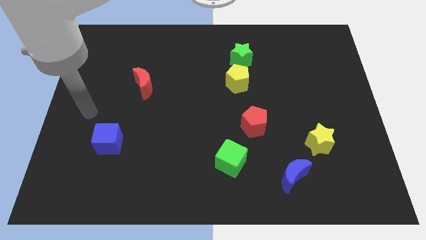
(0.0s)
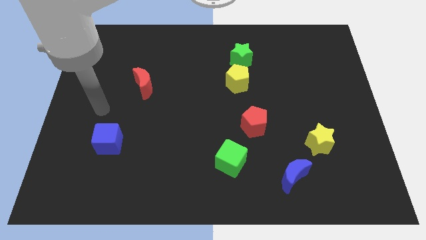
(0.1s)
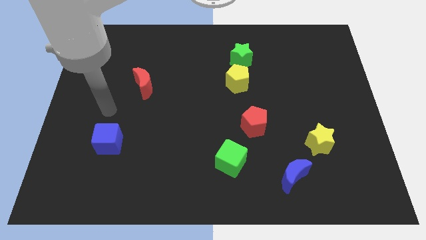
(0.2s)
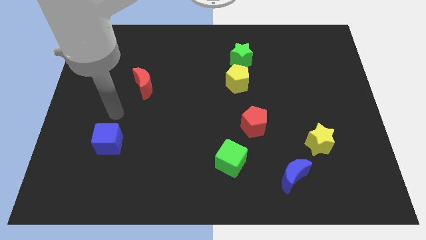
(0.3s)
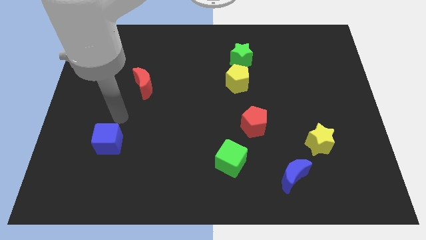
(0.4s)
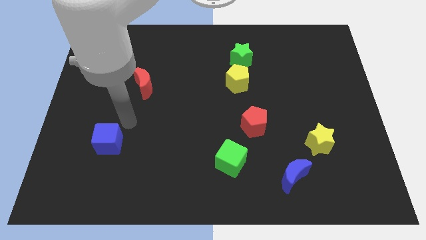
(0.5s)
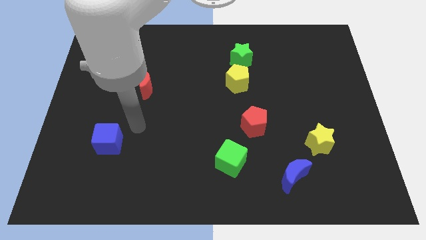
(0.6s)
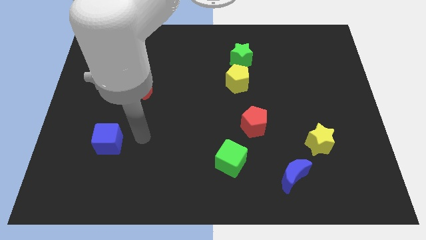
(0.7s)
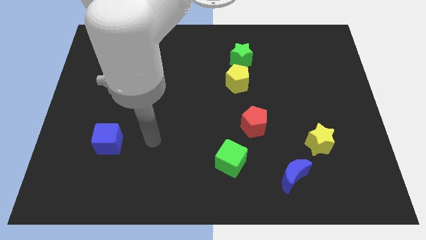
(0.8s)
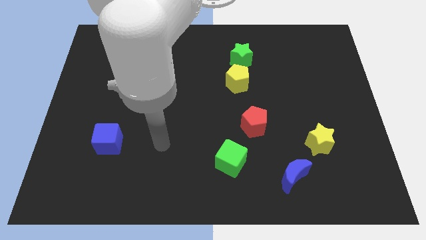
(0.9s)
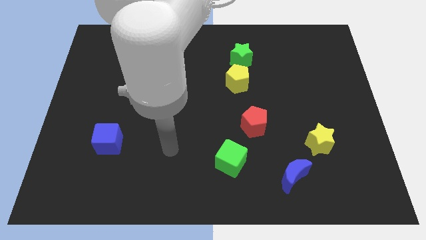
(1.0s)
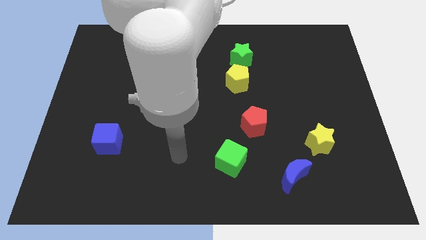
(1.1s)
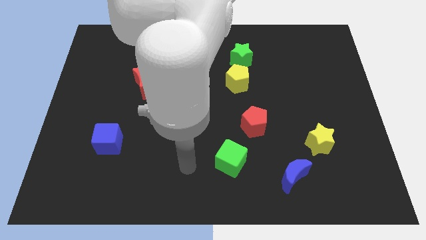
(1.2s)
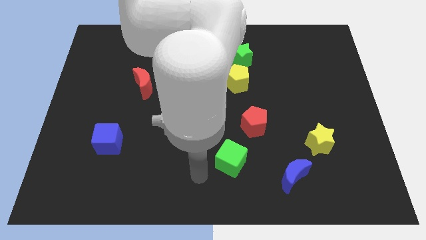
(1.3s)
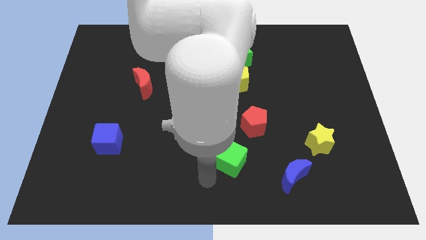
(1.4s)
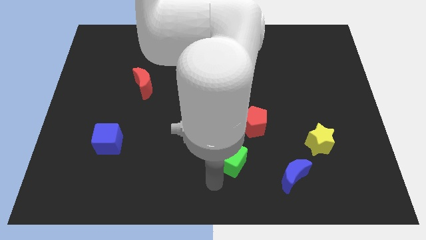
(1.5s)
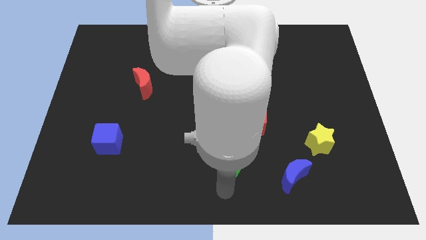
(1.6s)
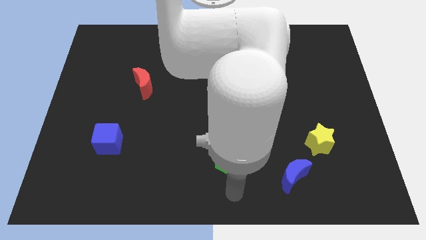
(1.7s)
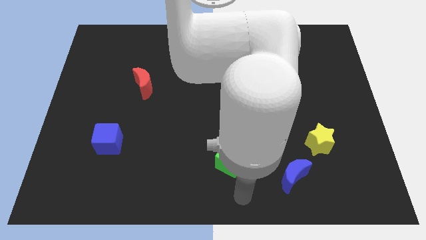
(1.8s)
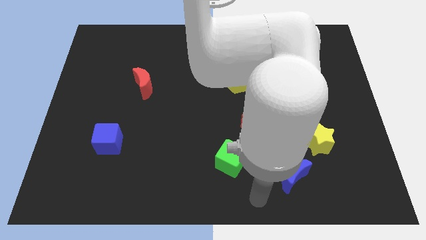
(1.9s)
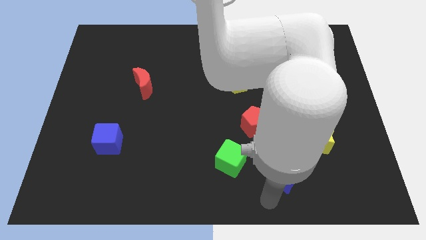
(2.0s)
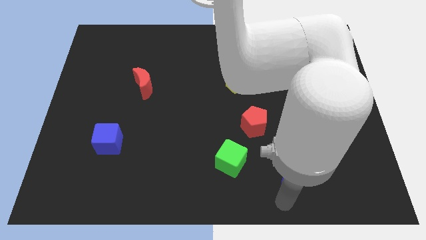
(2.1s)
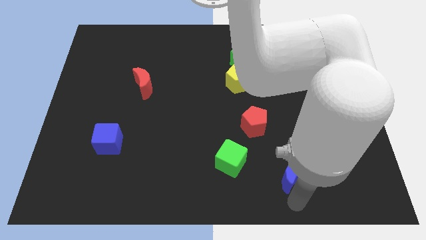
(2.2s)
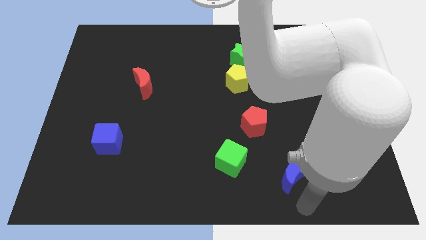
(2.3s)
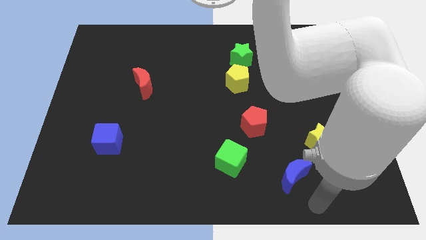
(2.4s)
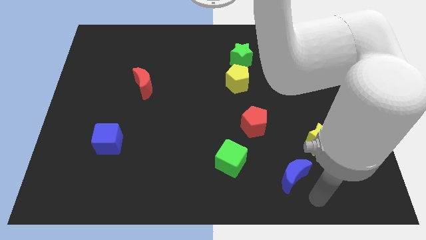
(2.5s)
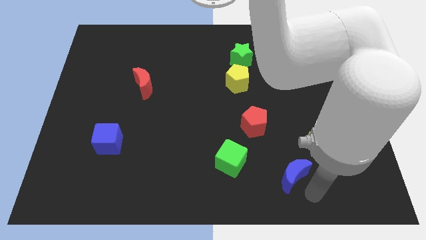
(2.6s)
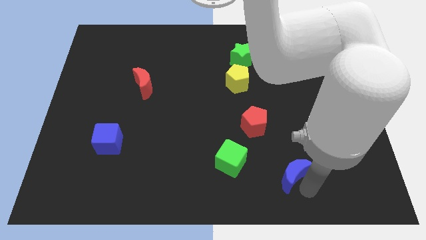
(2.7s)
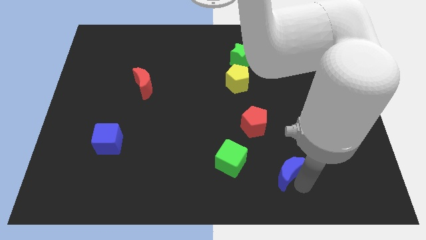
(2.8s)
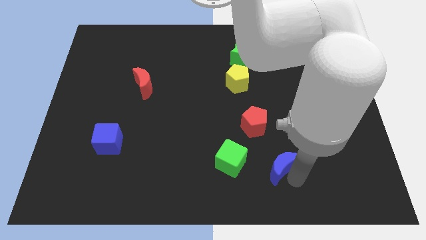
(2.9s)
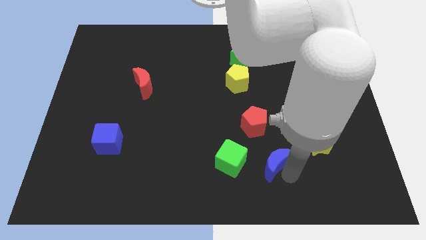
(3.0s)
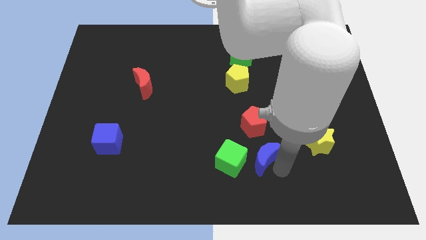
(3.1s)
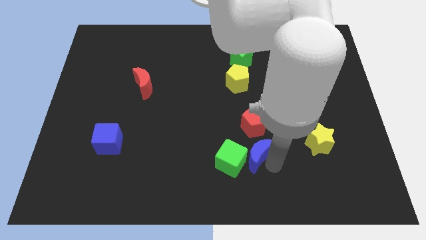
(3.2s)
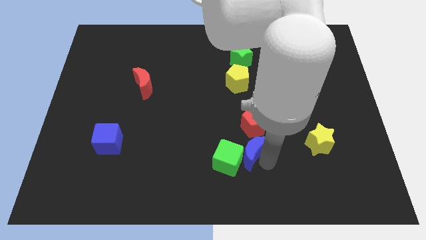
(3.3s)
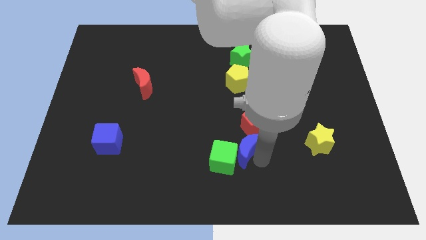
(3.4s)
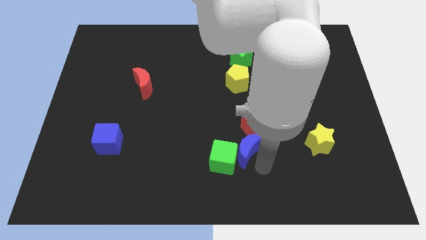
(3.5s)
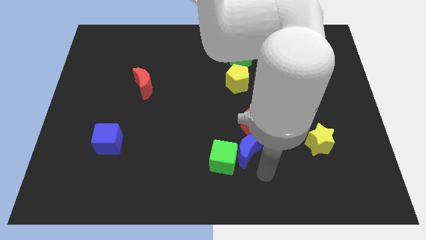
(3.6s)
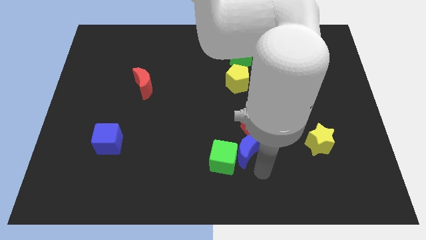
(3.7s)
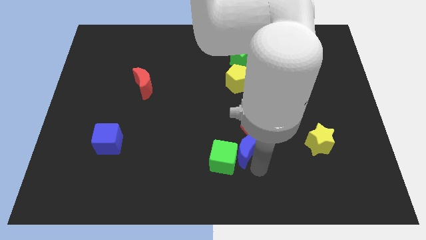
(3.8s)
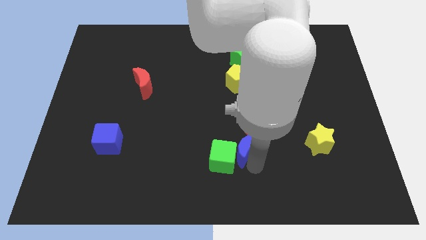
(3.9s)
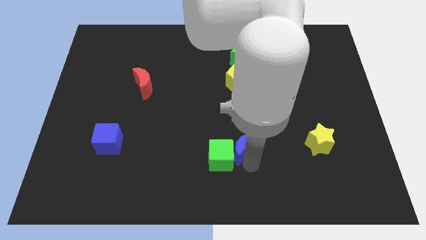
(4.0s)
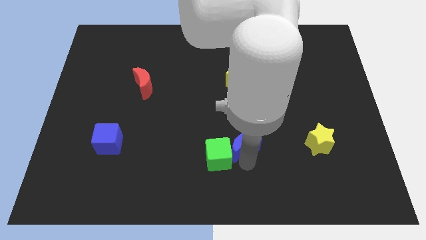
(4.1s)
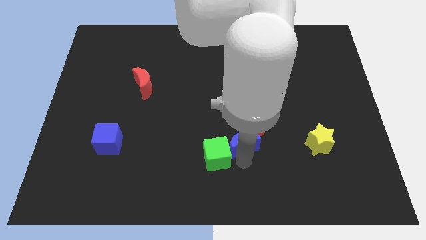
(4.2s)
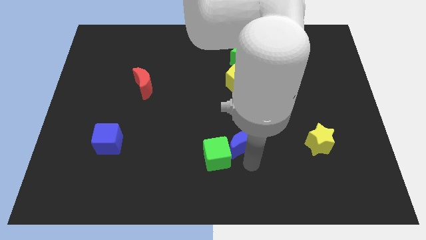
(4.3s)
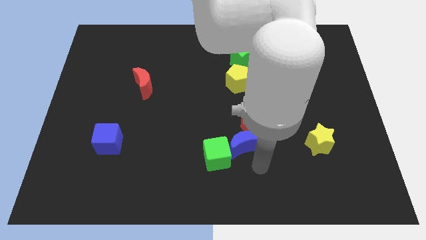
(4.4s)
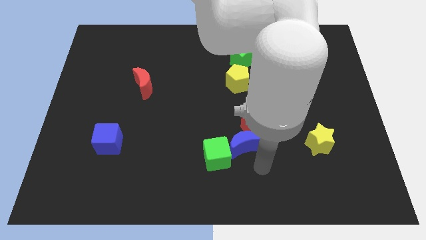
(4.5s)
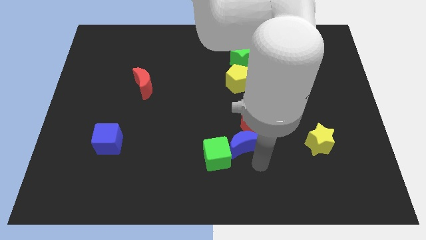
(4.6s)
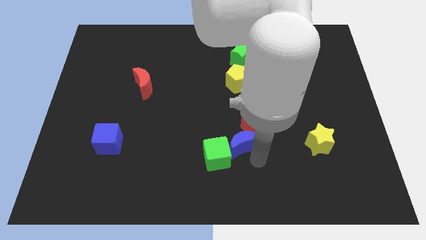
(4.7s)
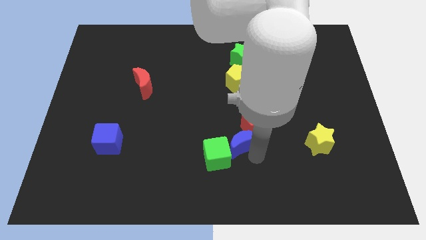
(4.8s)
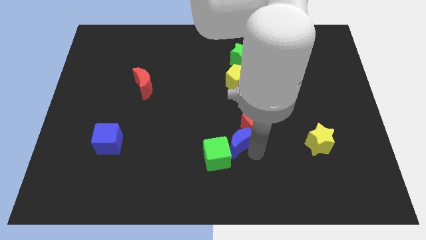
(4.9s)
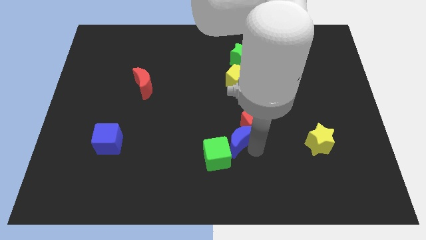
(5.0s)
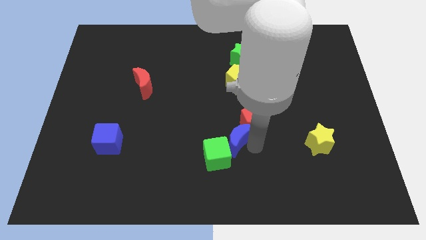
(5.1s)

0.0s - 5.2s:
push the blue moon to the top side of the green cube

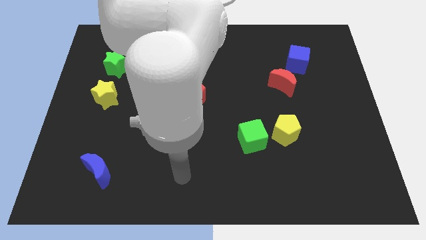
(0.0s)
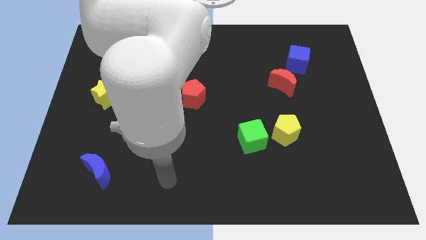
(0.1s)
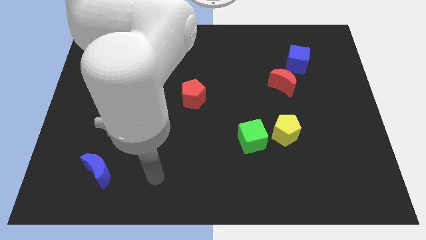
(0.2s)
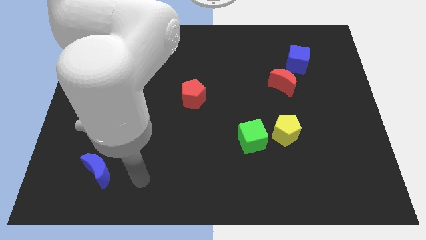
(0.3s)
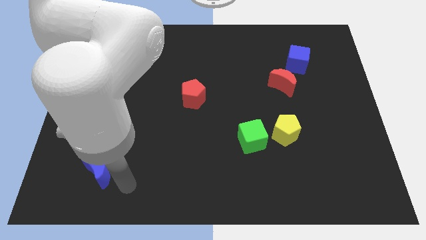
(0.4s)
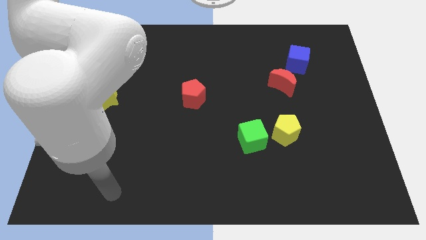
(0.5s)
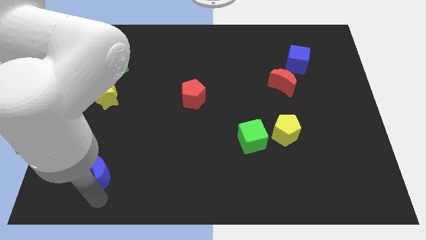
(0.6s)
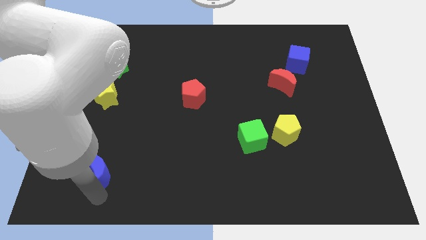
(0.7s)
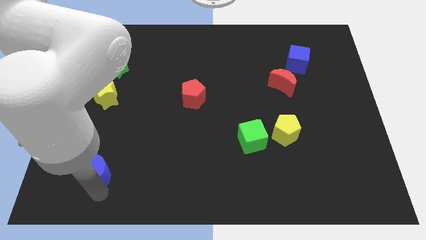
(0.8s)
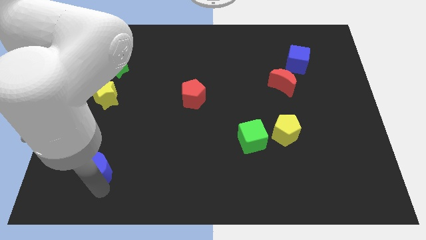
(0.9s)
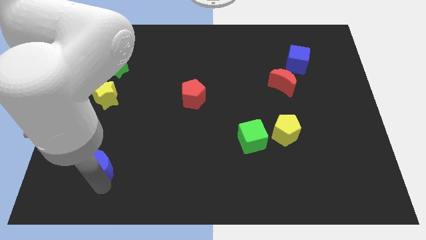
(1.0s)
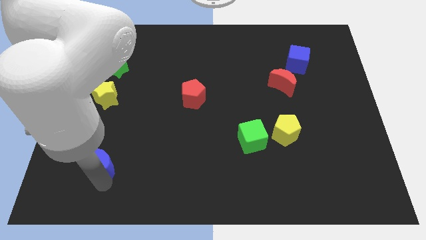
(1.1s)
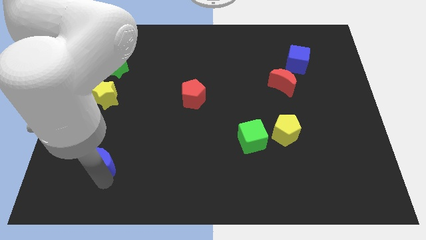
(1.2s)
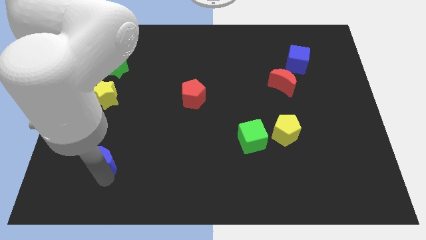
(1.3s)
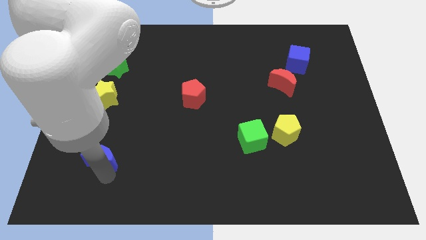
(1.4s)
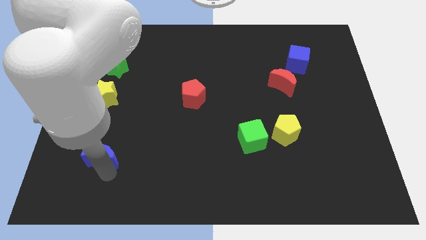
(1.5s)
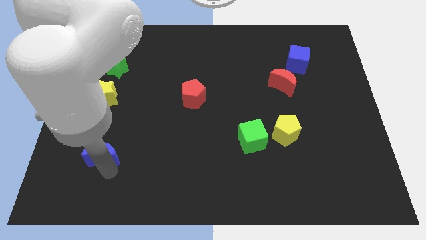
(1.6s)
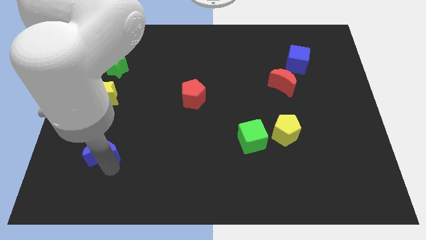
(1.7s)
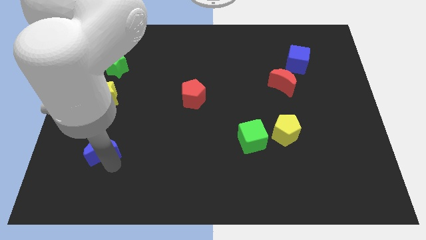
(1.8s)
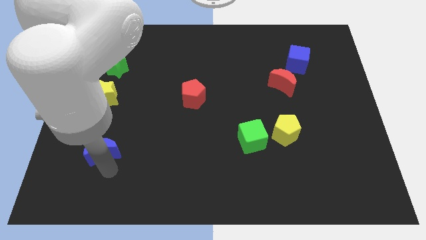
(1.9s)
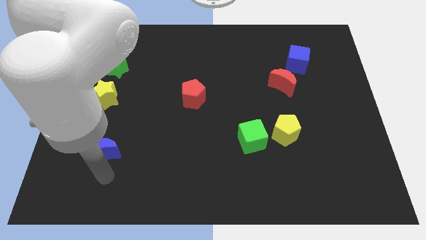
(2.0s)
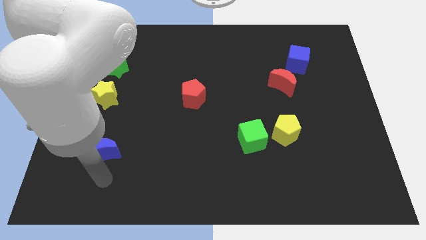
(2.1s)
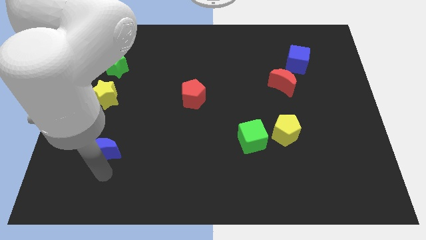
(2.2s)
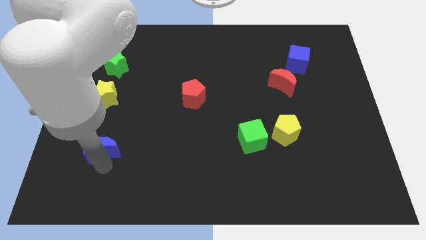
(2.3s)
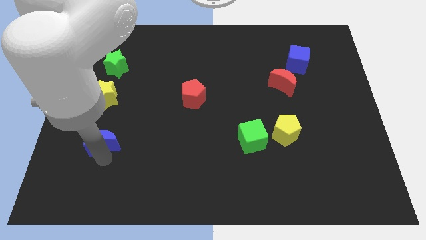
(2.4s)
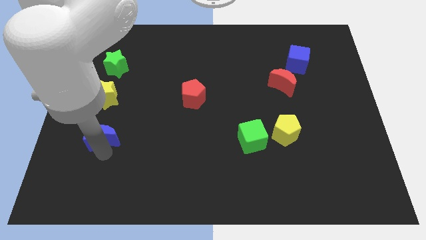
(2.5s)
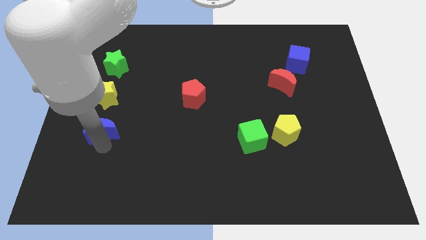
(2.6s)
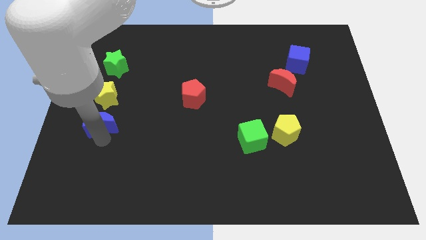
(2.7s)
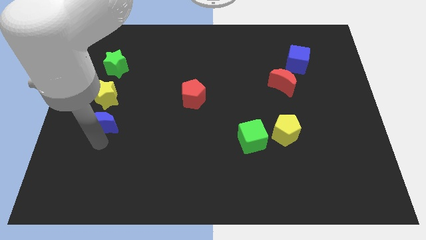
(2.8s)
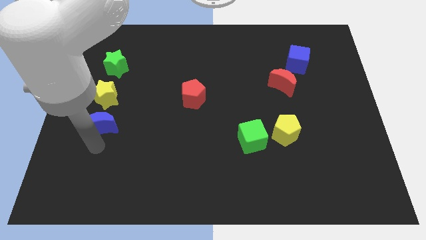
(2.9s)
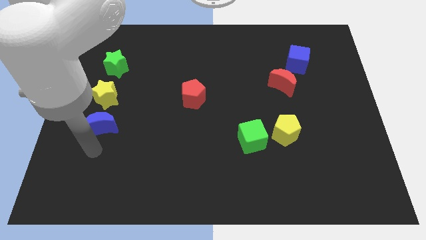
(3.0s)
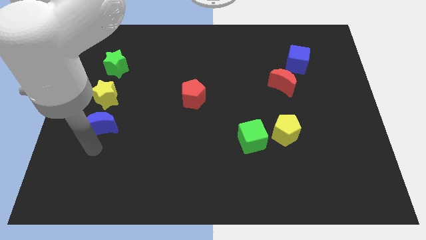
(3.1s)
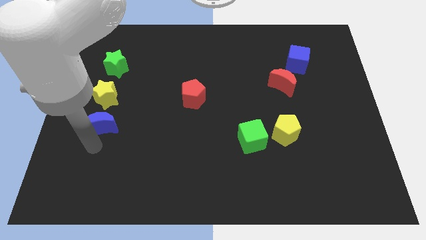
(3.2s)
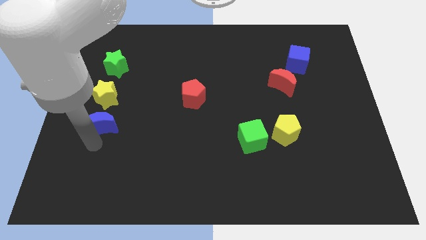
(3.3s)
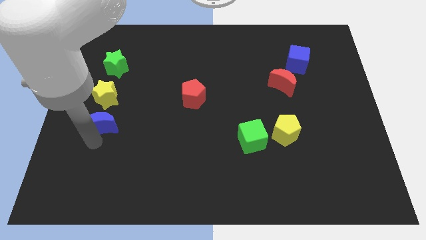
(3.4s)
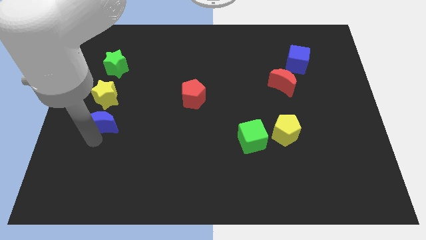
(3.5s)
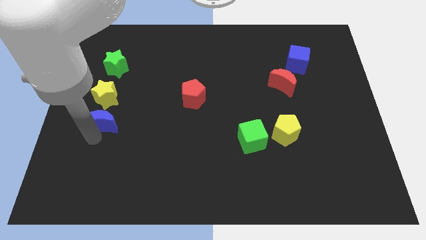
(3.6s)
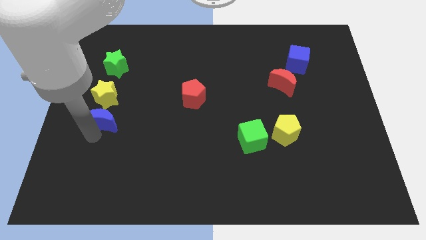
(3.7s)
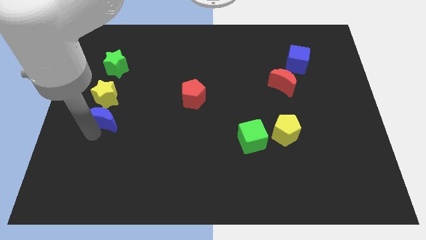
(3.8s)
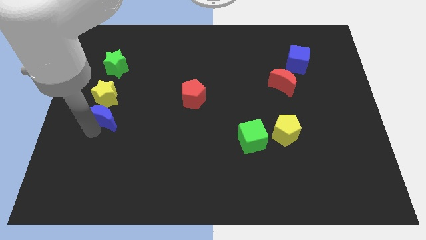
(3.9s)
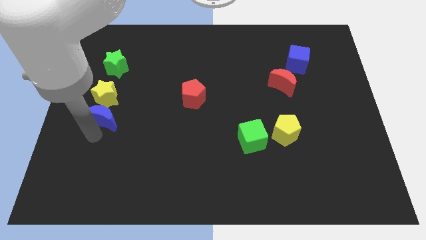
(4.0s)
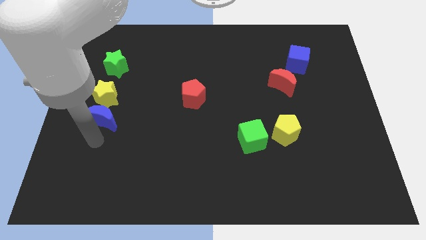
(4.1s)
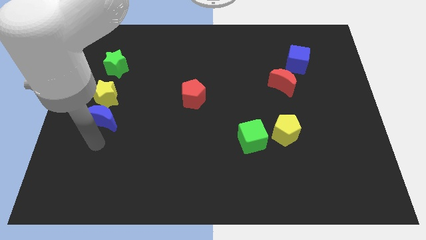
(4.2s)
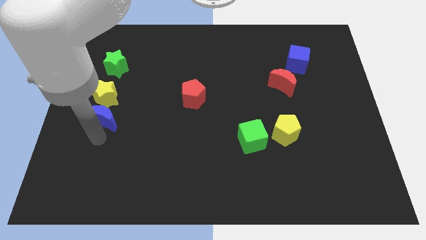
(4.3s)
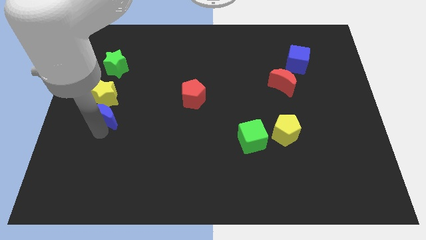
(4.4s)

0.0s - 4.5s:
slide the blue moon to the bottom side of the green star
